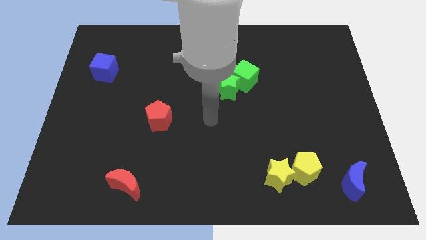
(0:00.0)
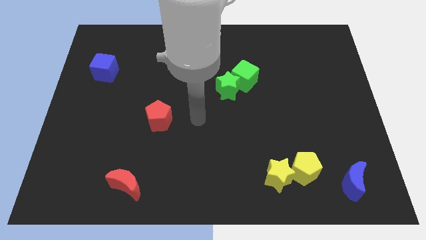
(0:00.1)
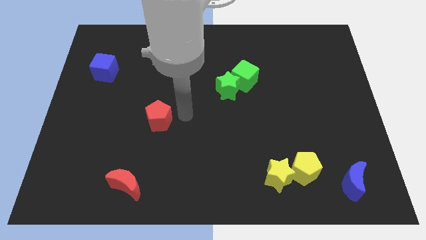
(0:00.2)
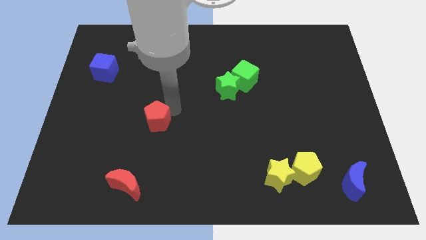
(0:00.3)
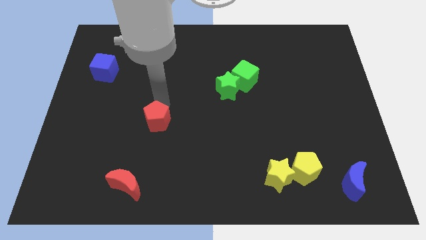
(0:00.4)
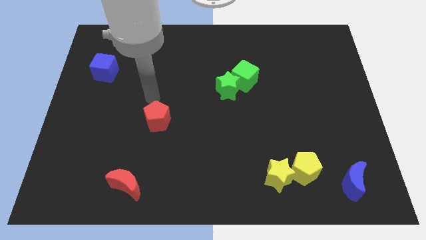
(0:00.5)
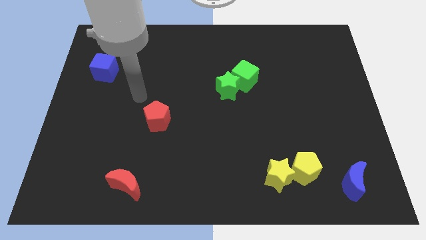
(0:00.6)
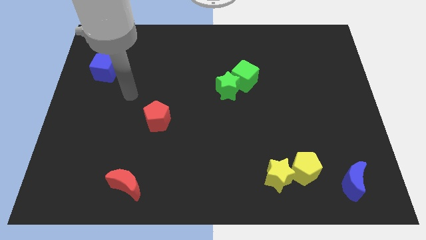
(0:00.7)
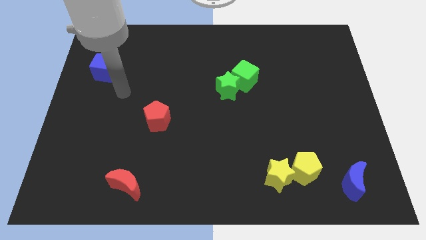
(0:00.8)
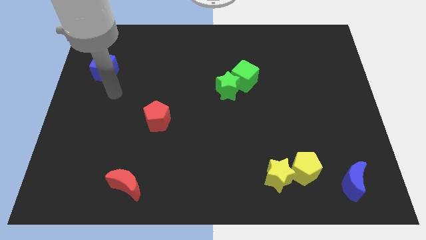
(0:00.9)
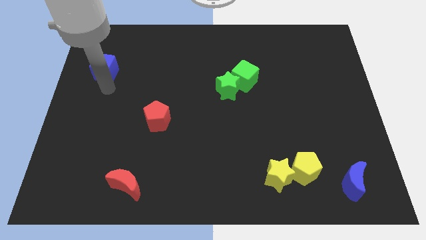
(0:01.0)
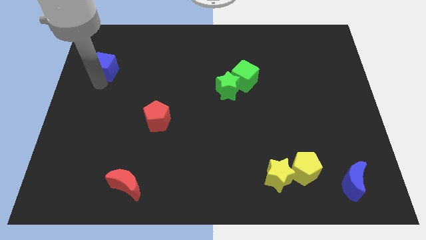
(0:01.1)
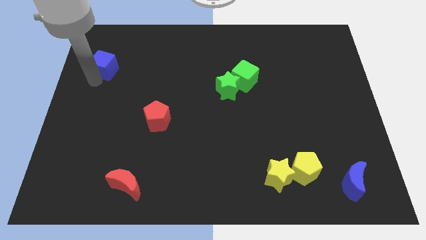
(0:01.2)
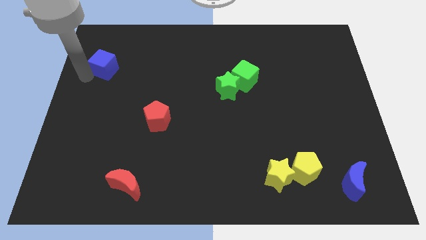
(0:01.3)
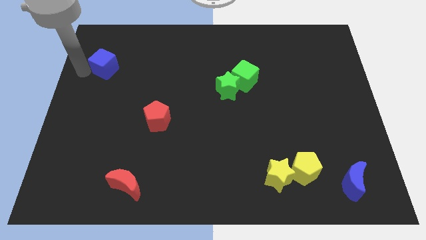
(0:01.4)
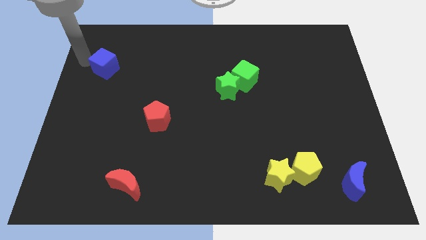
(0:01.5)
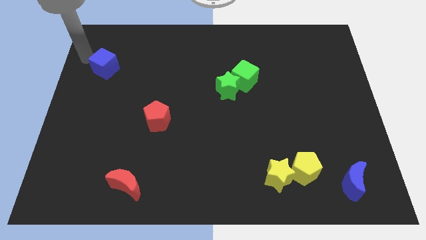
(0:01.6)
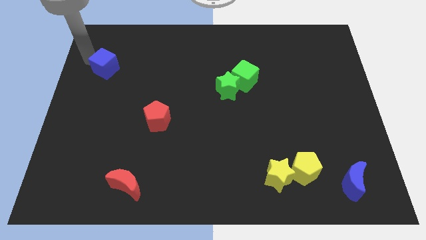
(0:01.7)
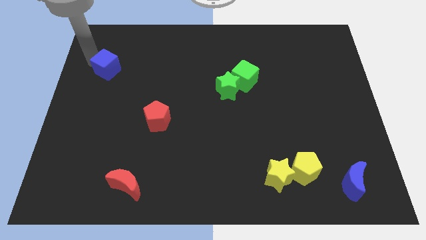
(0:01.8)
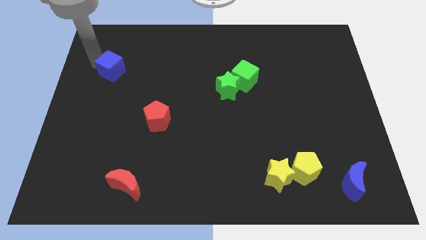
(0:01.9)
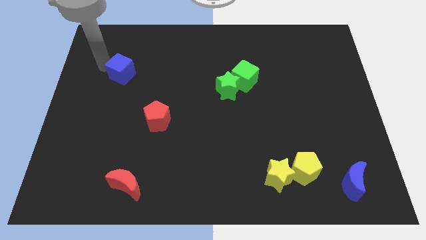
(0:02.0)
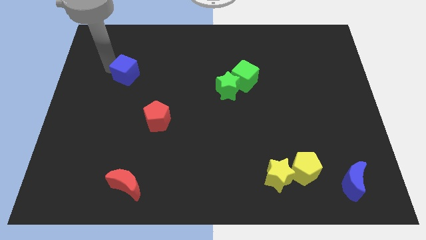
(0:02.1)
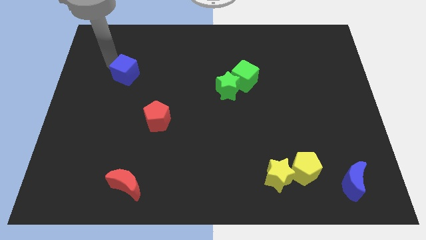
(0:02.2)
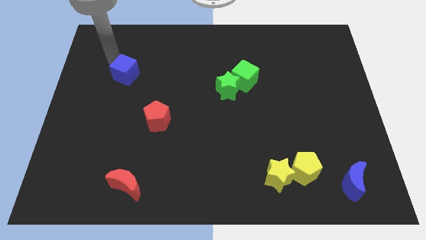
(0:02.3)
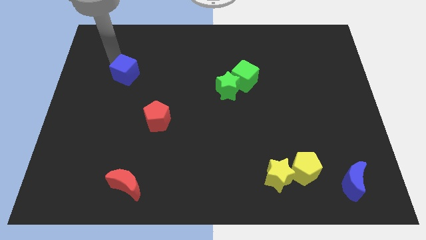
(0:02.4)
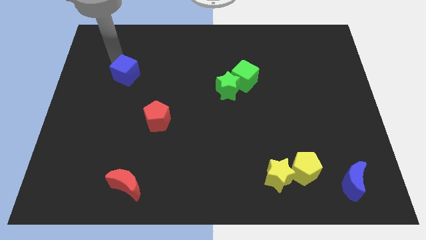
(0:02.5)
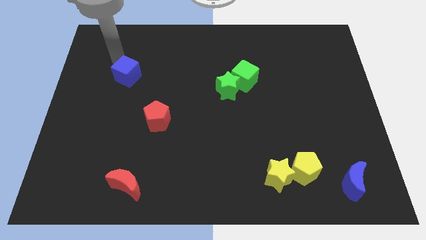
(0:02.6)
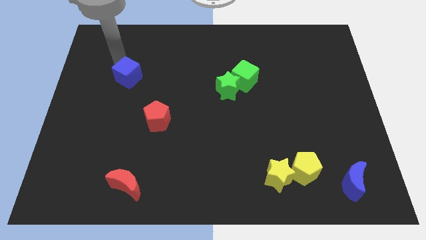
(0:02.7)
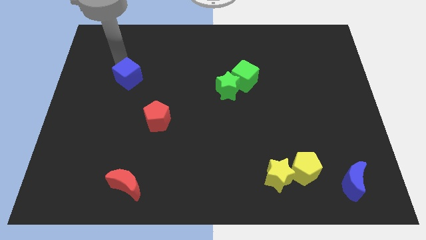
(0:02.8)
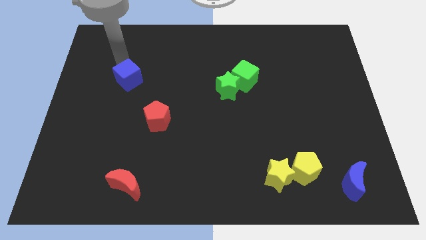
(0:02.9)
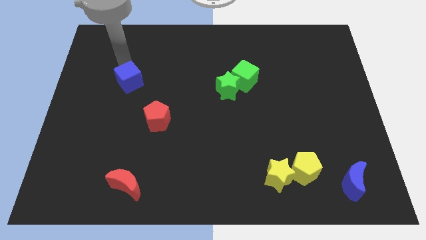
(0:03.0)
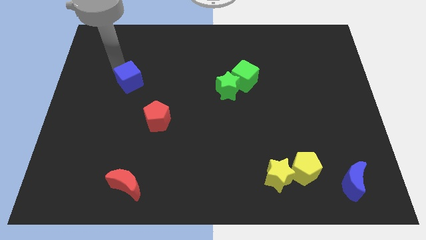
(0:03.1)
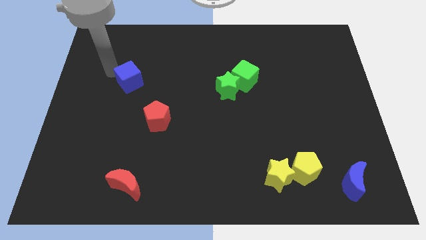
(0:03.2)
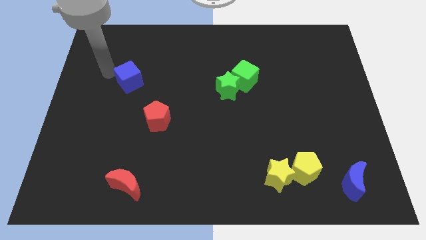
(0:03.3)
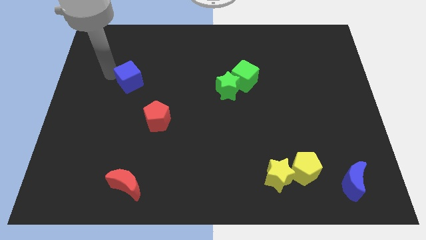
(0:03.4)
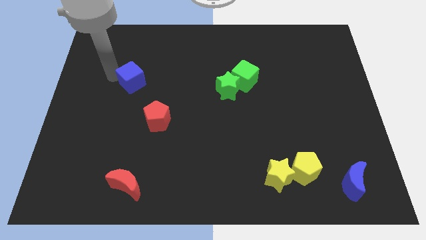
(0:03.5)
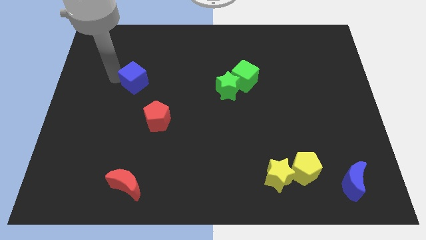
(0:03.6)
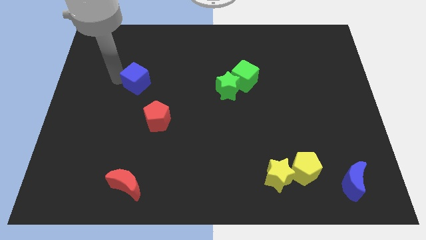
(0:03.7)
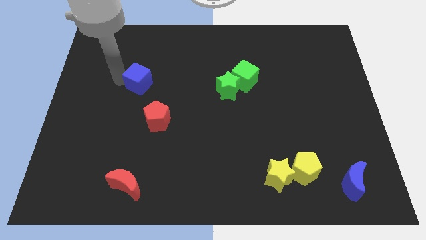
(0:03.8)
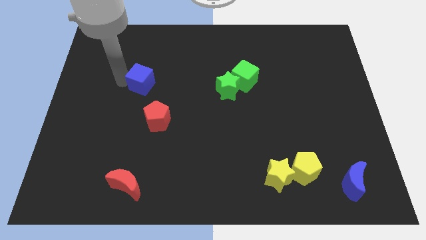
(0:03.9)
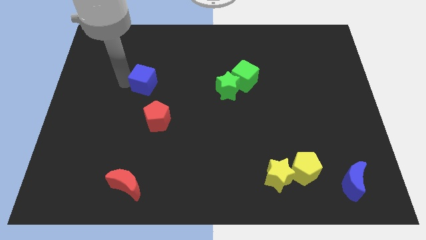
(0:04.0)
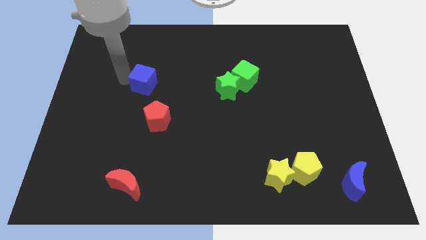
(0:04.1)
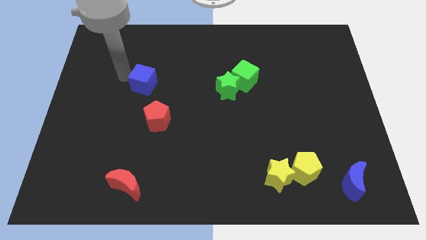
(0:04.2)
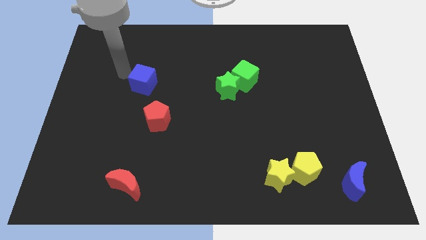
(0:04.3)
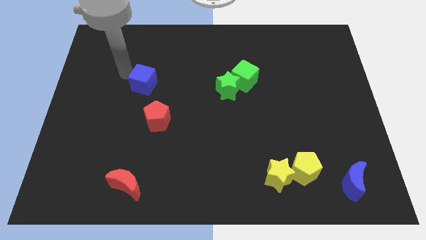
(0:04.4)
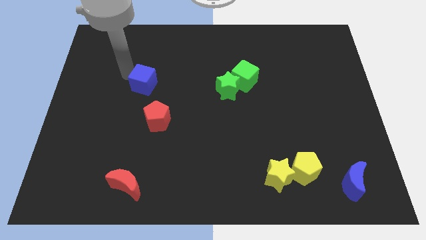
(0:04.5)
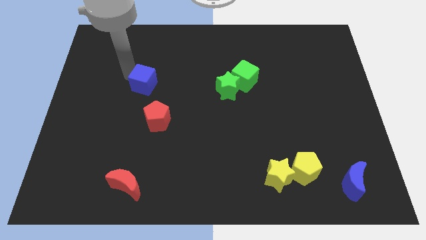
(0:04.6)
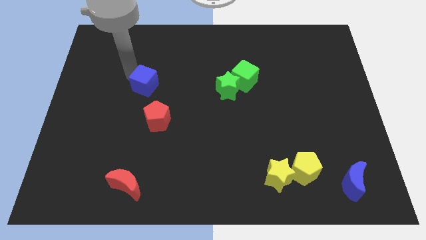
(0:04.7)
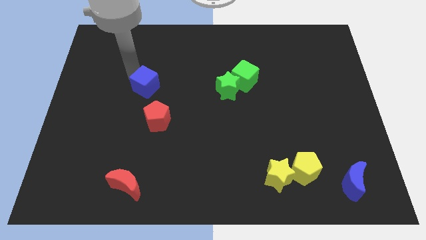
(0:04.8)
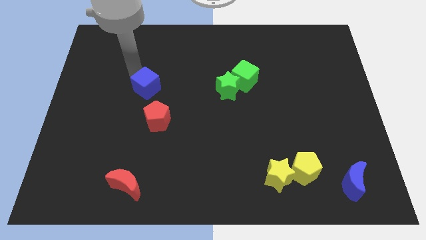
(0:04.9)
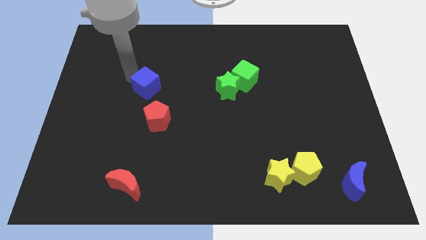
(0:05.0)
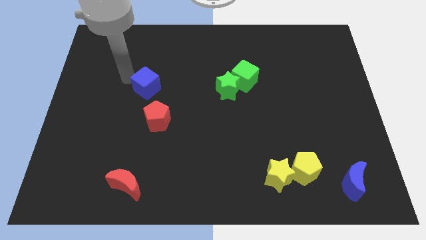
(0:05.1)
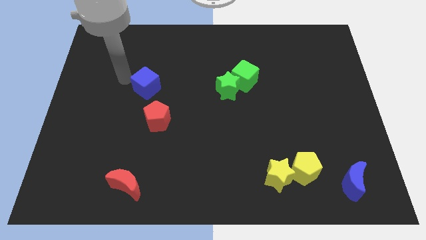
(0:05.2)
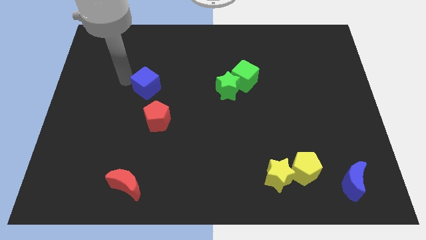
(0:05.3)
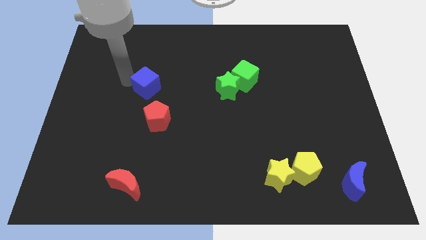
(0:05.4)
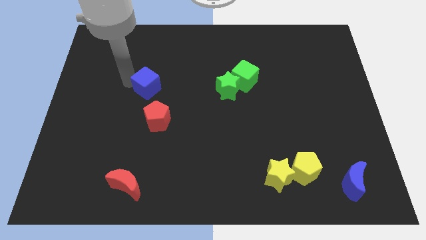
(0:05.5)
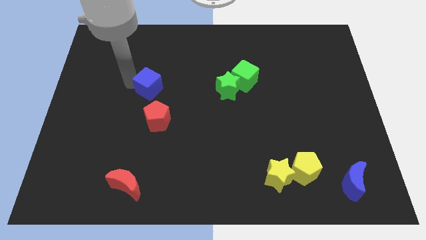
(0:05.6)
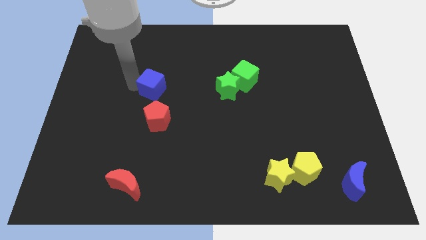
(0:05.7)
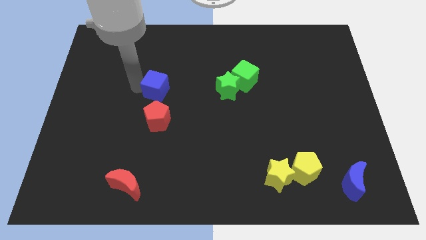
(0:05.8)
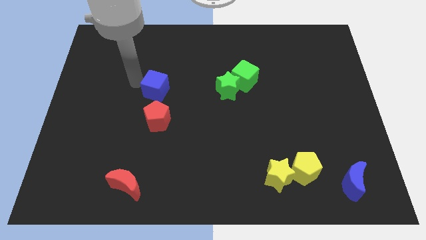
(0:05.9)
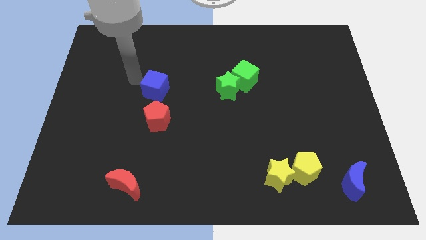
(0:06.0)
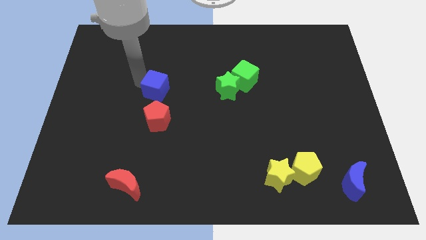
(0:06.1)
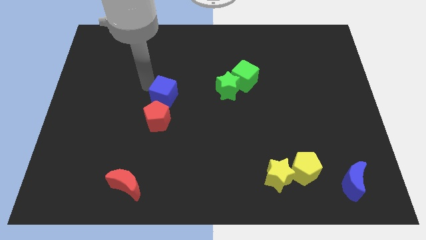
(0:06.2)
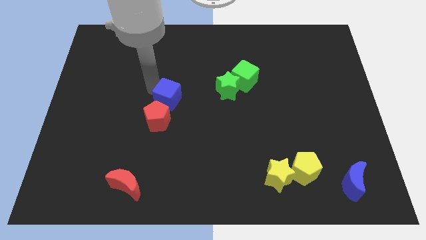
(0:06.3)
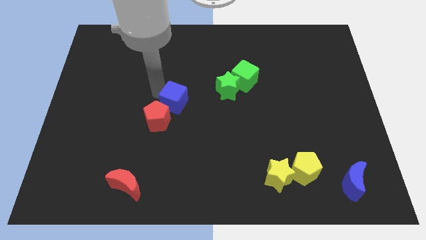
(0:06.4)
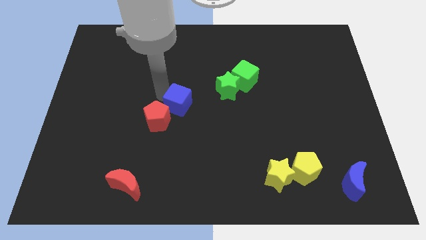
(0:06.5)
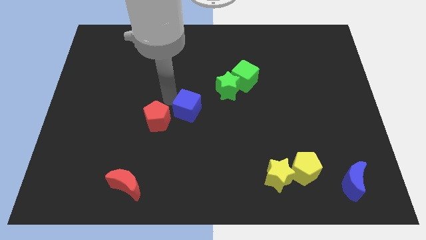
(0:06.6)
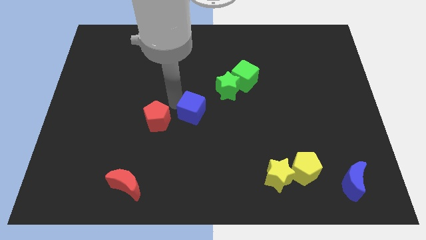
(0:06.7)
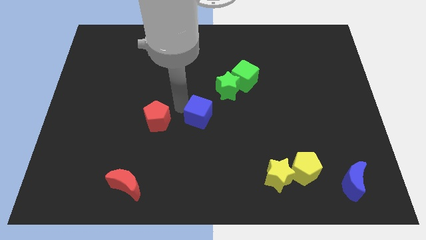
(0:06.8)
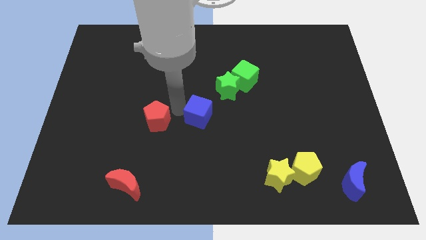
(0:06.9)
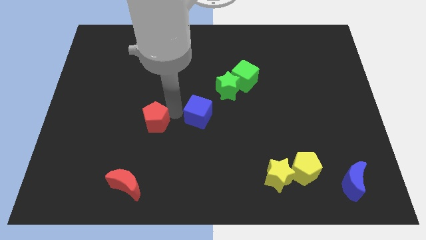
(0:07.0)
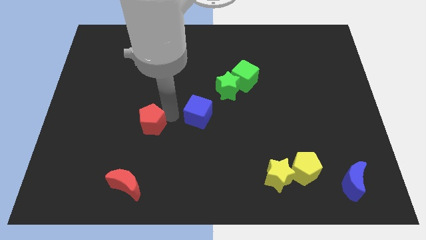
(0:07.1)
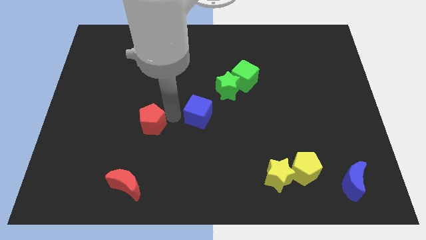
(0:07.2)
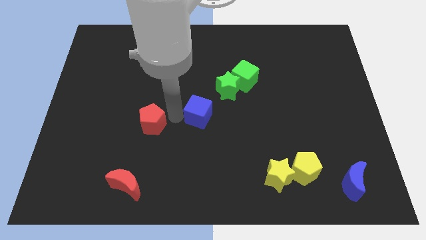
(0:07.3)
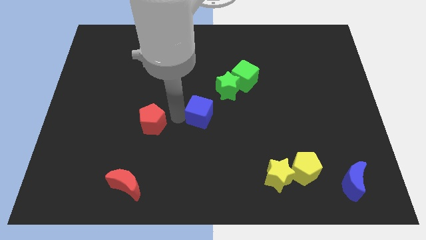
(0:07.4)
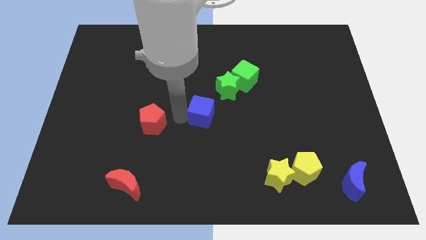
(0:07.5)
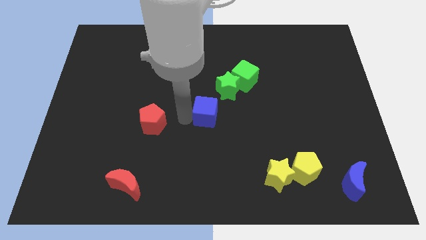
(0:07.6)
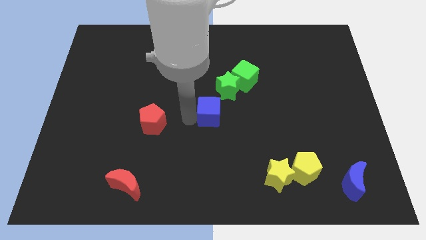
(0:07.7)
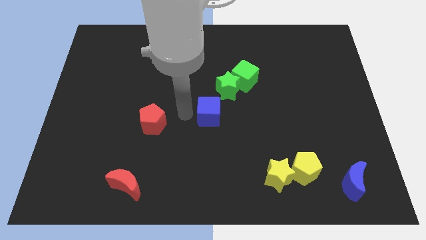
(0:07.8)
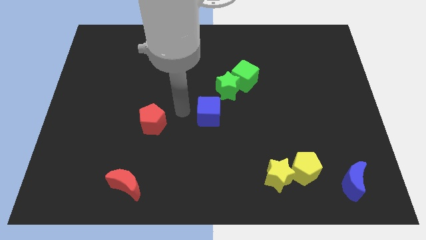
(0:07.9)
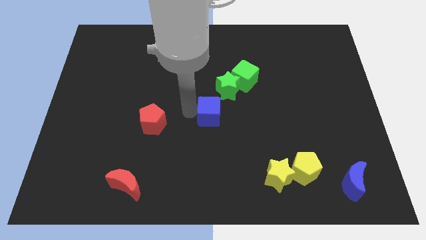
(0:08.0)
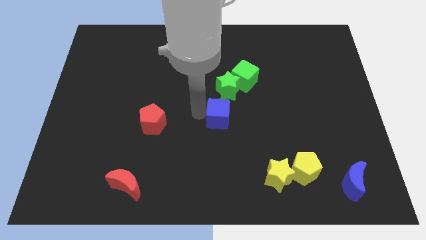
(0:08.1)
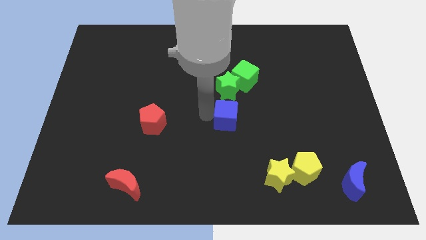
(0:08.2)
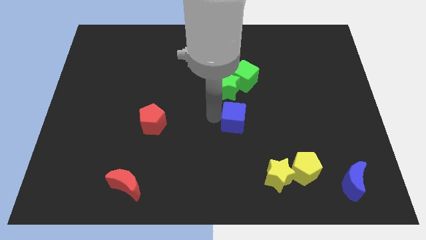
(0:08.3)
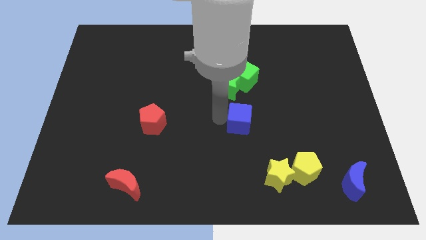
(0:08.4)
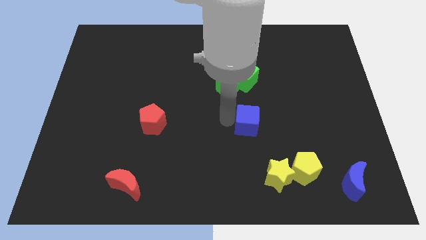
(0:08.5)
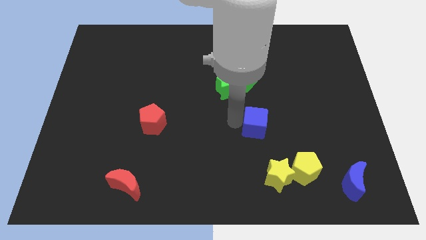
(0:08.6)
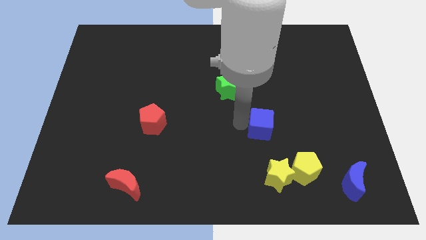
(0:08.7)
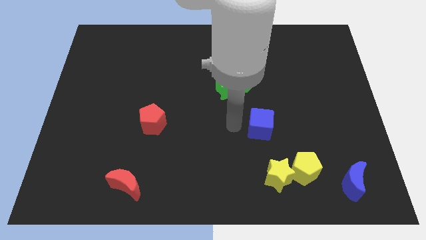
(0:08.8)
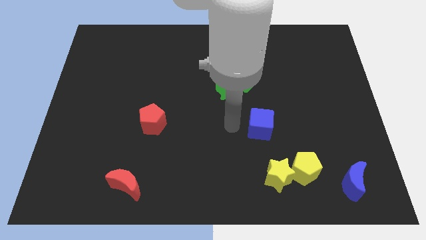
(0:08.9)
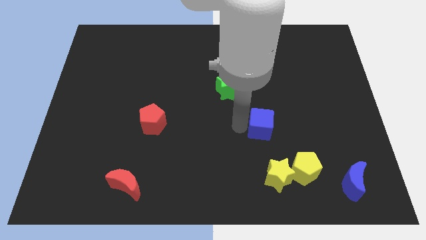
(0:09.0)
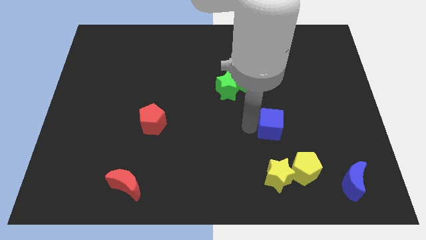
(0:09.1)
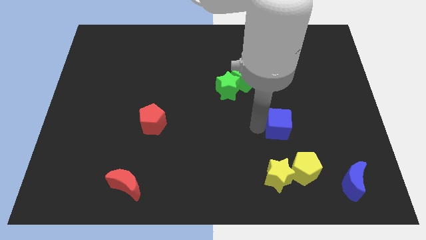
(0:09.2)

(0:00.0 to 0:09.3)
push the blue cube above the yellow pentagon
